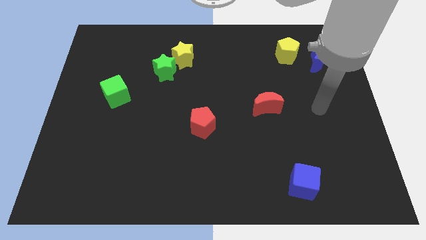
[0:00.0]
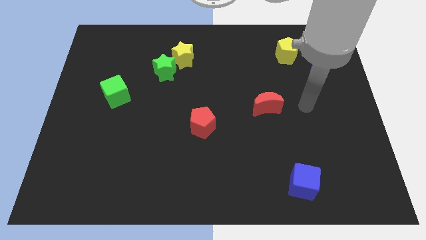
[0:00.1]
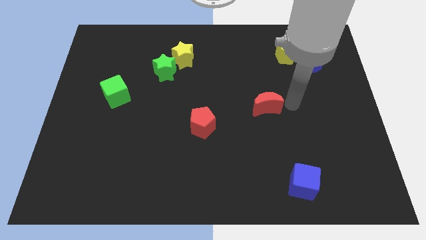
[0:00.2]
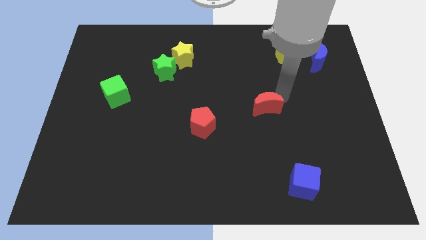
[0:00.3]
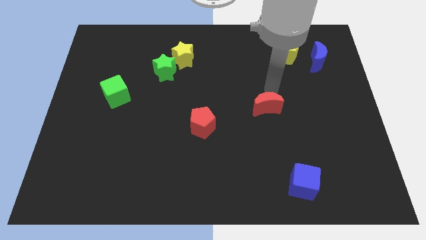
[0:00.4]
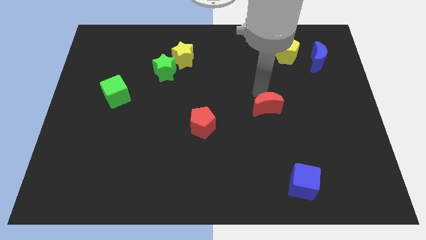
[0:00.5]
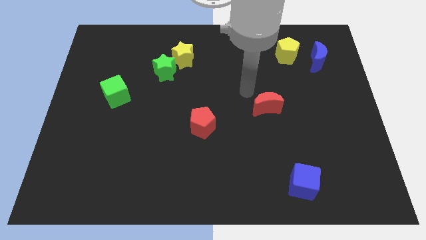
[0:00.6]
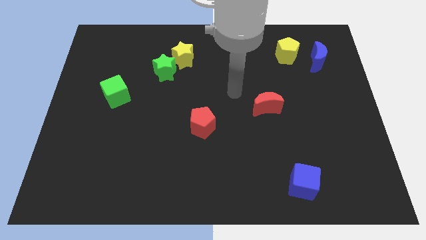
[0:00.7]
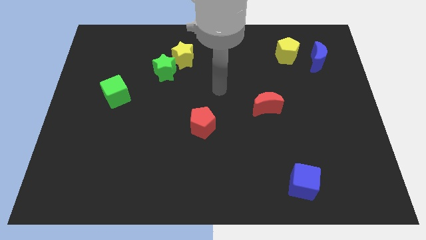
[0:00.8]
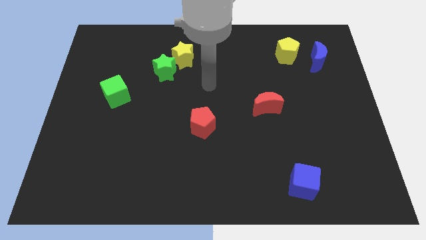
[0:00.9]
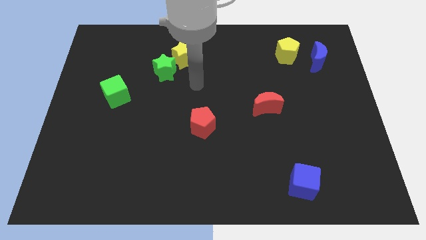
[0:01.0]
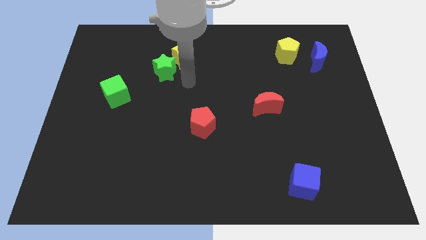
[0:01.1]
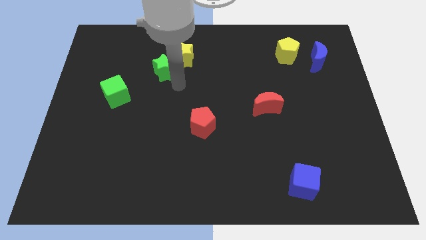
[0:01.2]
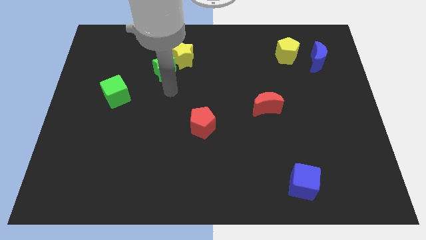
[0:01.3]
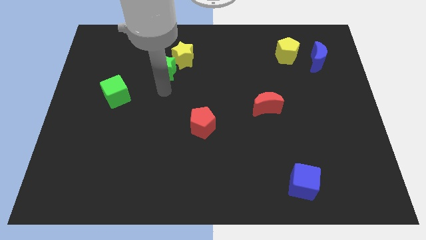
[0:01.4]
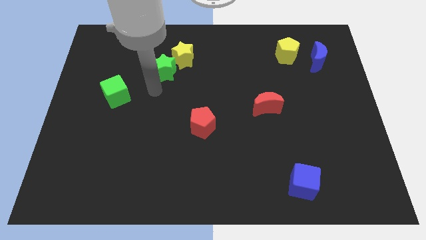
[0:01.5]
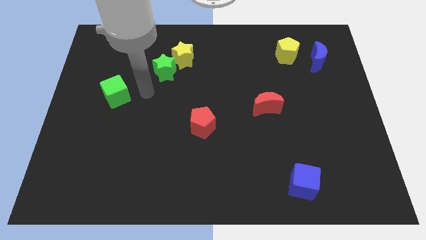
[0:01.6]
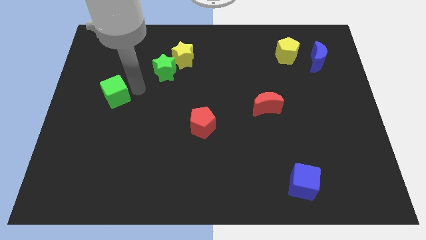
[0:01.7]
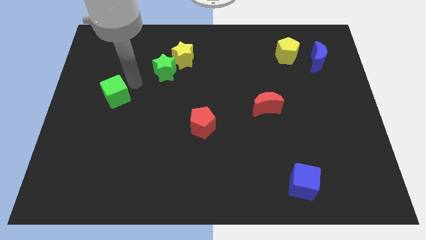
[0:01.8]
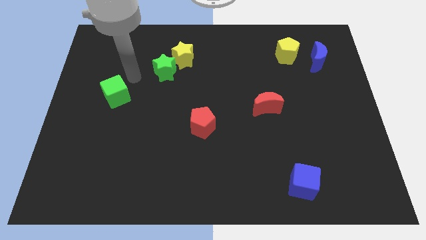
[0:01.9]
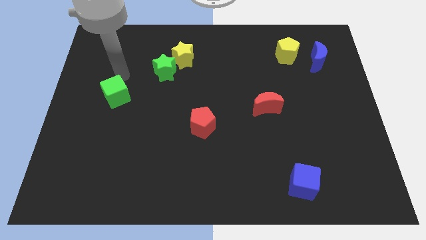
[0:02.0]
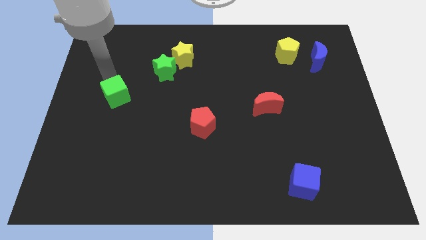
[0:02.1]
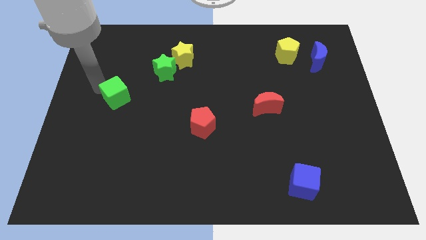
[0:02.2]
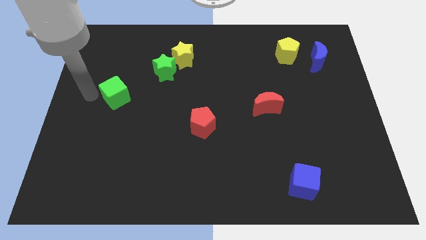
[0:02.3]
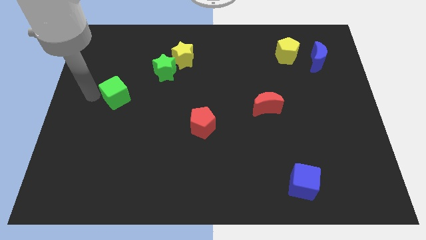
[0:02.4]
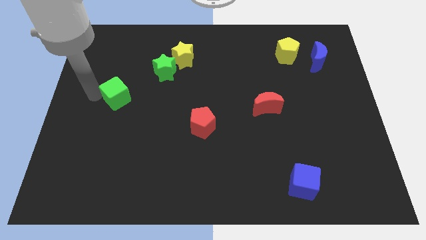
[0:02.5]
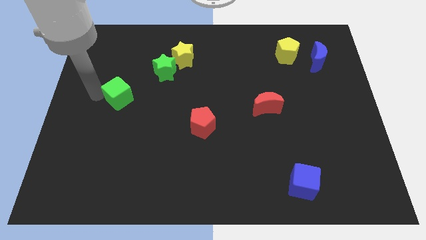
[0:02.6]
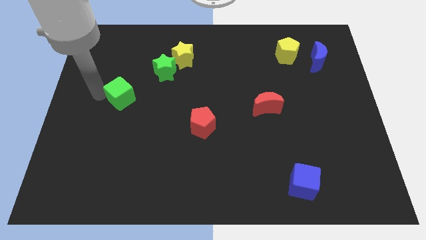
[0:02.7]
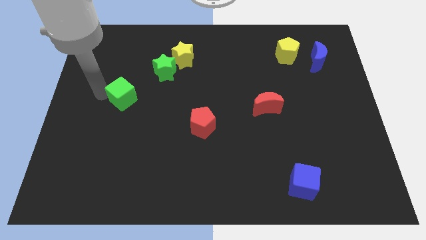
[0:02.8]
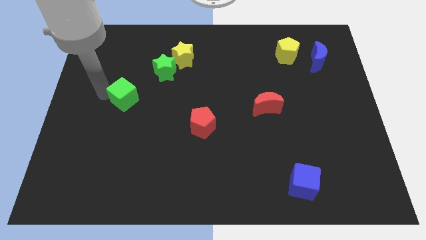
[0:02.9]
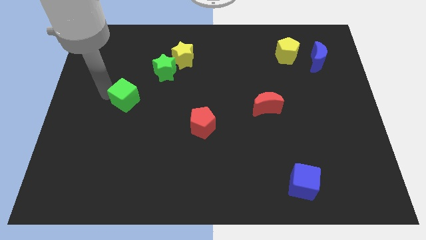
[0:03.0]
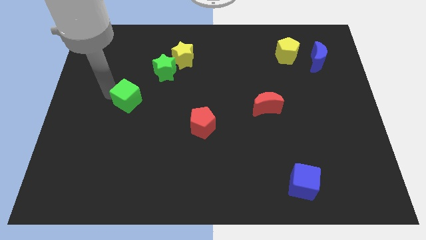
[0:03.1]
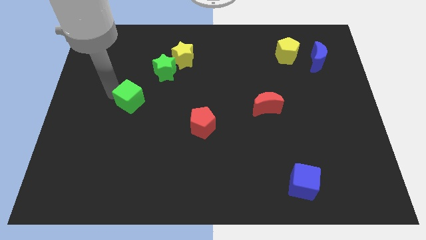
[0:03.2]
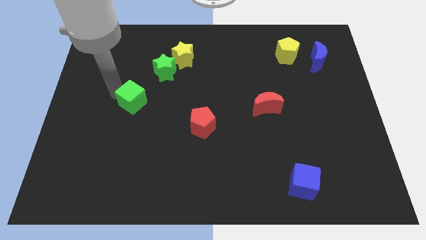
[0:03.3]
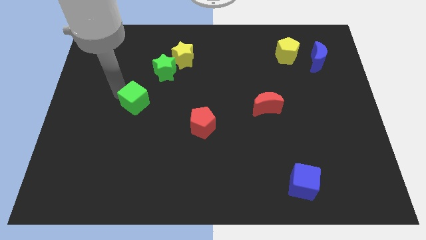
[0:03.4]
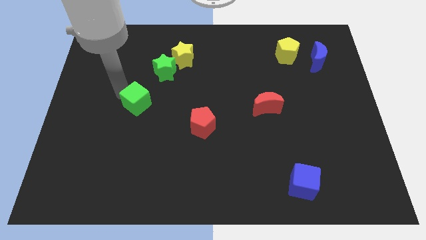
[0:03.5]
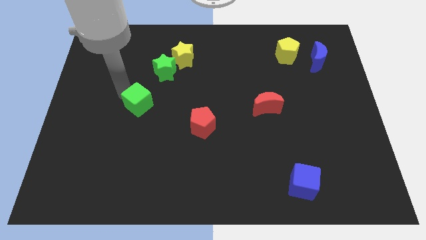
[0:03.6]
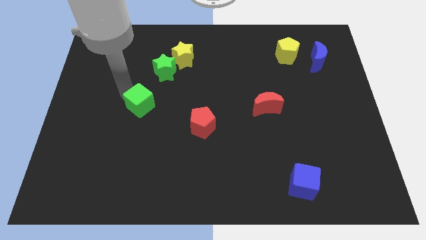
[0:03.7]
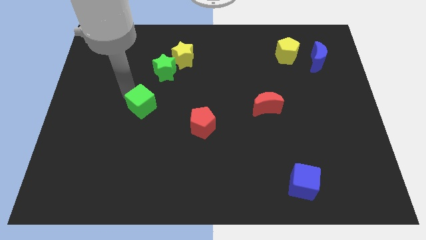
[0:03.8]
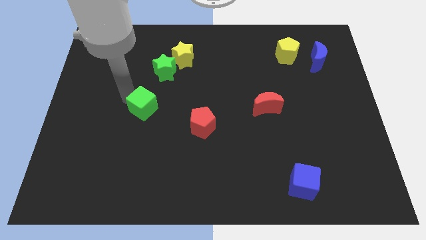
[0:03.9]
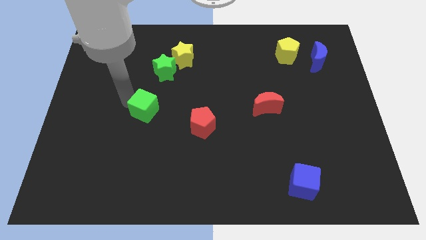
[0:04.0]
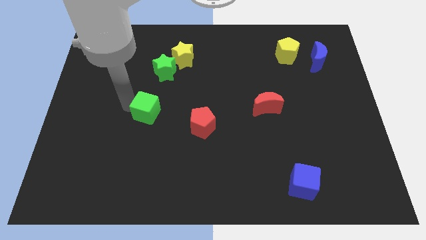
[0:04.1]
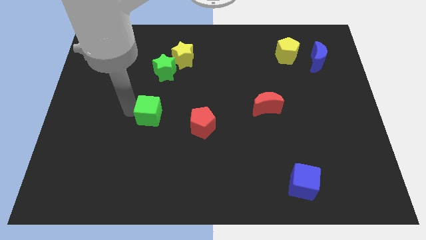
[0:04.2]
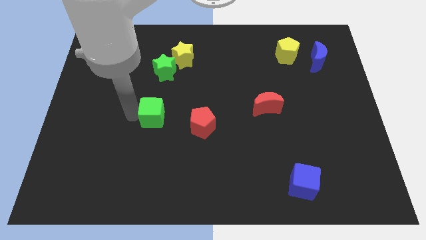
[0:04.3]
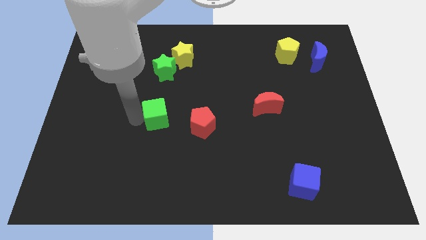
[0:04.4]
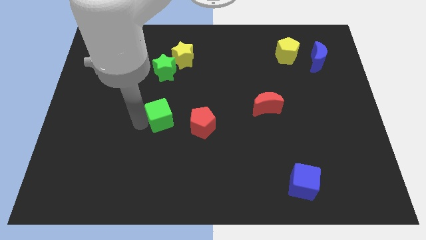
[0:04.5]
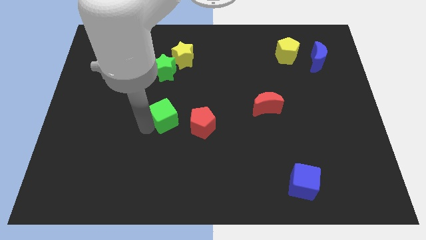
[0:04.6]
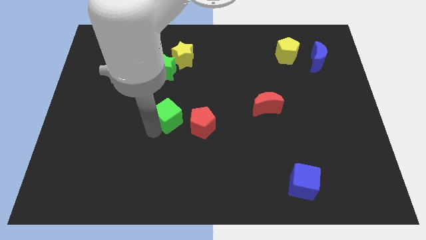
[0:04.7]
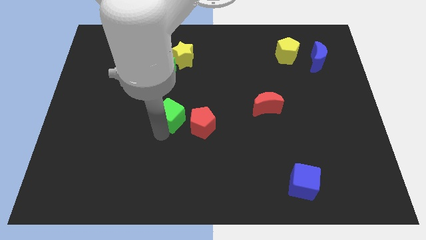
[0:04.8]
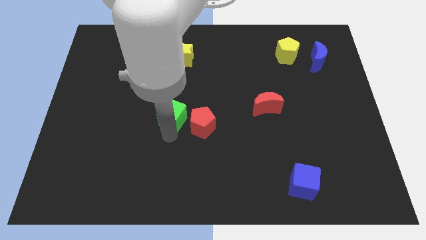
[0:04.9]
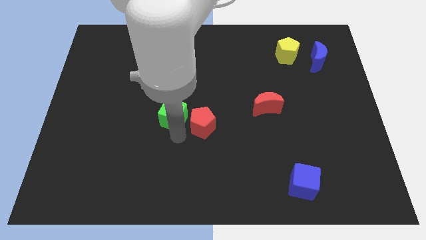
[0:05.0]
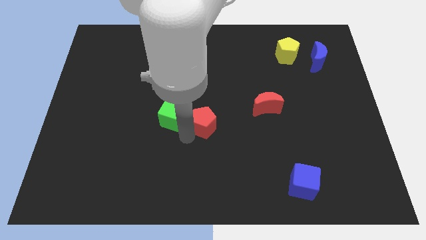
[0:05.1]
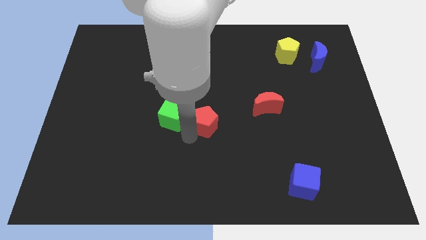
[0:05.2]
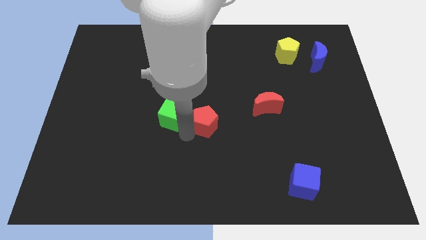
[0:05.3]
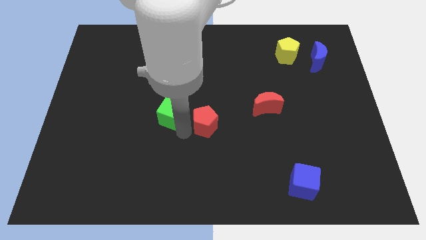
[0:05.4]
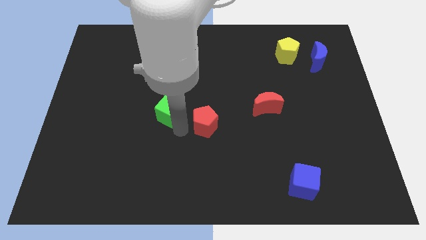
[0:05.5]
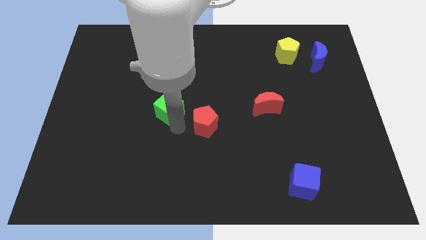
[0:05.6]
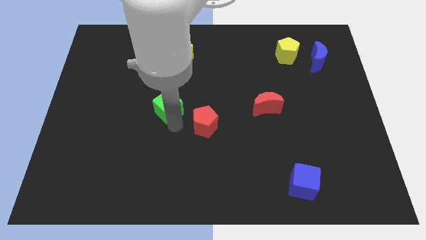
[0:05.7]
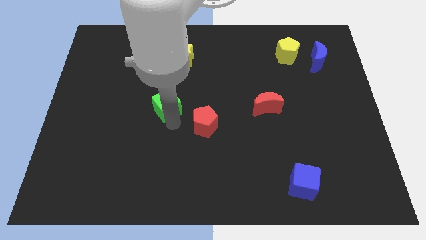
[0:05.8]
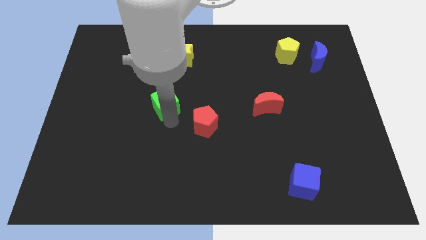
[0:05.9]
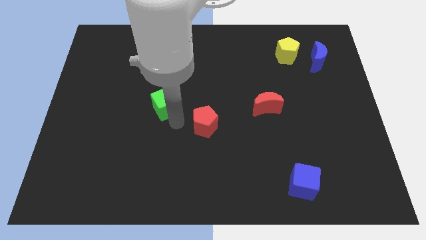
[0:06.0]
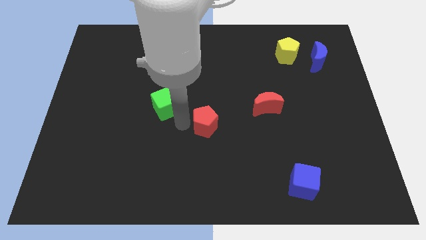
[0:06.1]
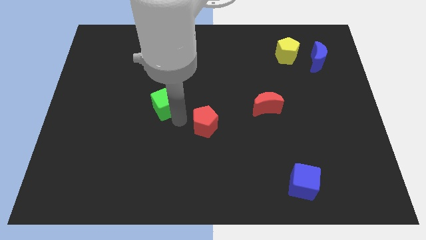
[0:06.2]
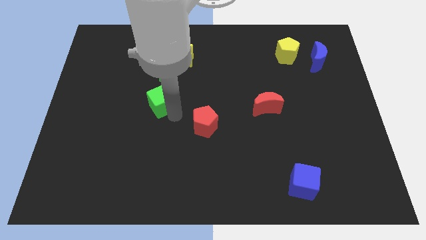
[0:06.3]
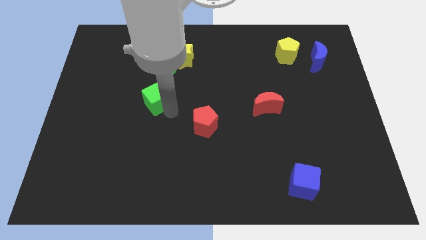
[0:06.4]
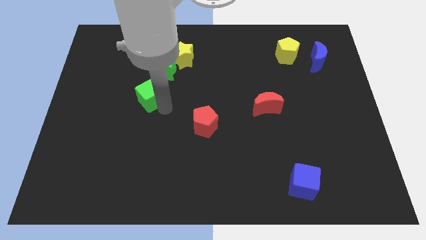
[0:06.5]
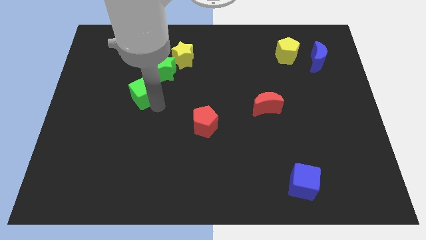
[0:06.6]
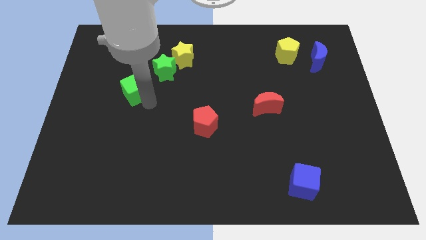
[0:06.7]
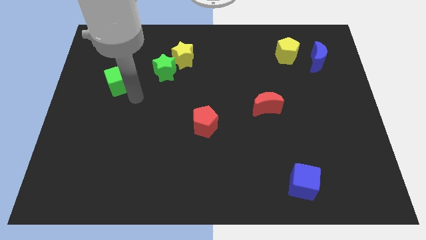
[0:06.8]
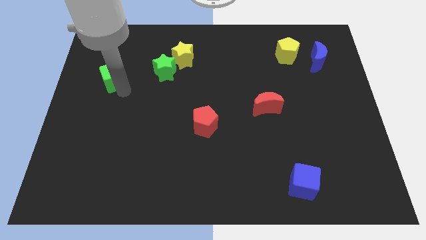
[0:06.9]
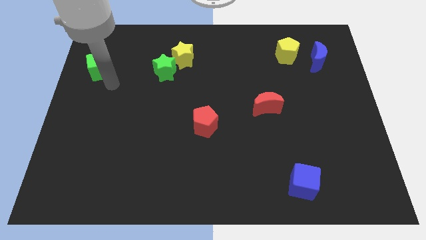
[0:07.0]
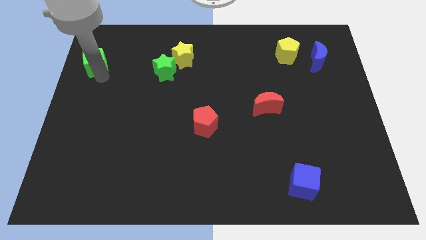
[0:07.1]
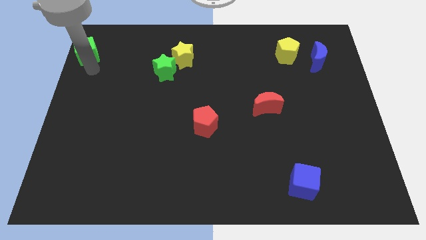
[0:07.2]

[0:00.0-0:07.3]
move the green cube to the top left corner
